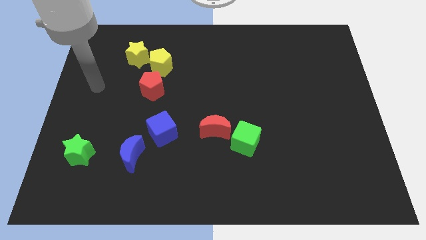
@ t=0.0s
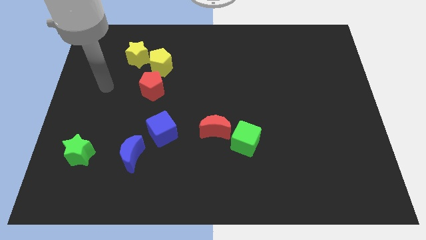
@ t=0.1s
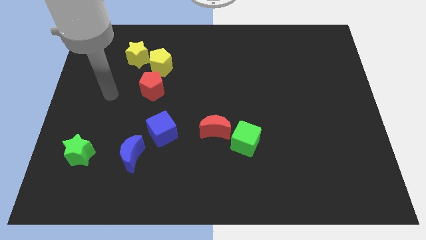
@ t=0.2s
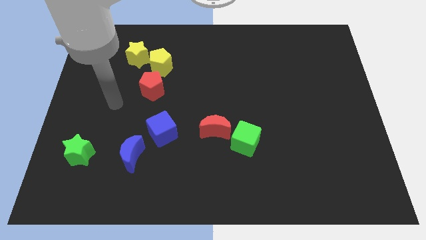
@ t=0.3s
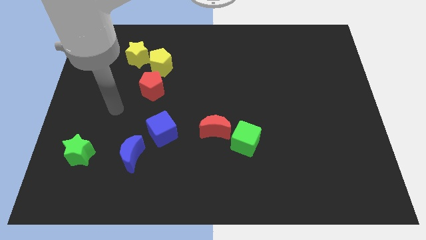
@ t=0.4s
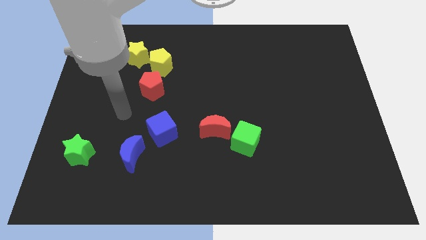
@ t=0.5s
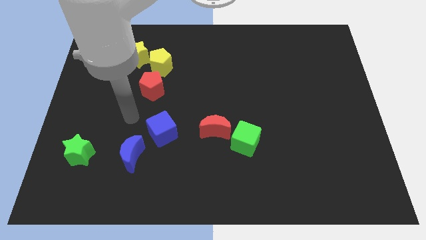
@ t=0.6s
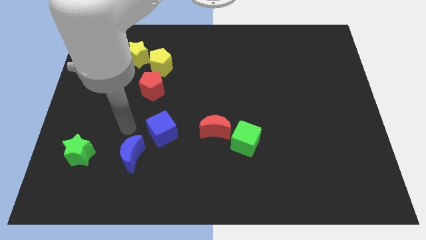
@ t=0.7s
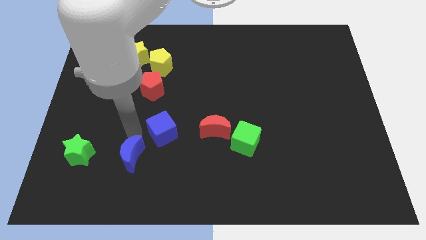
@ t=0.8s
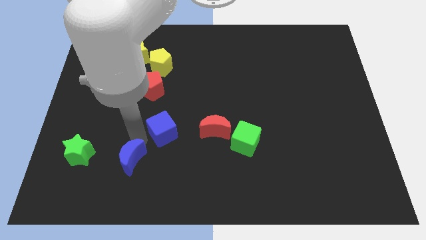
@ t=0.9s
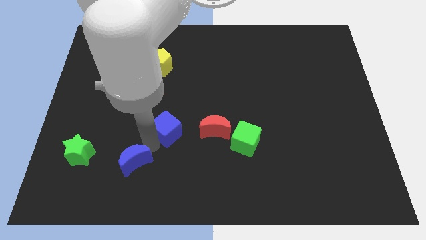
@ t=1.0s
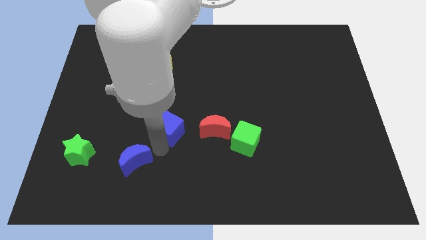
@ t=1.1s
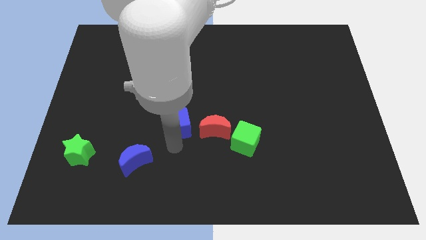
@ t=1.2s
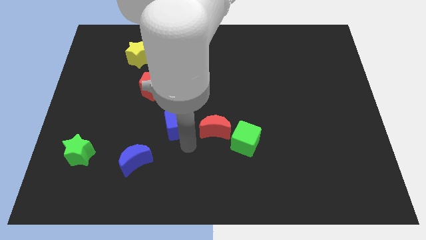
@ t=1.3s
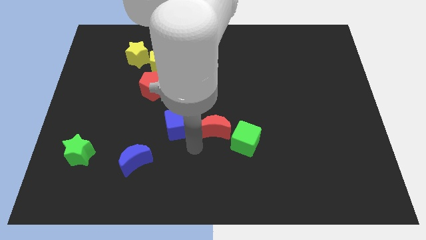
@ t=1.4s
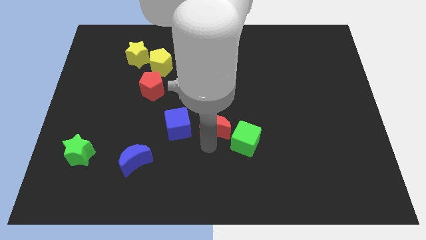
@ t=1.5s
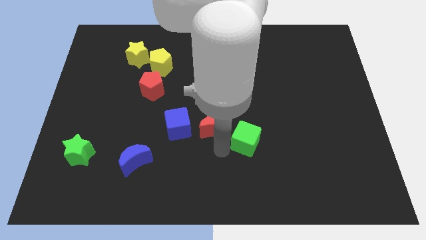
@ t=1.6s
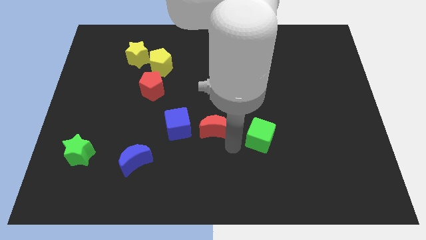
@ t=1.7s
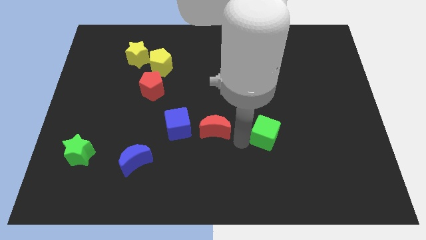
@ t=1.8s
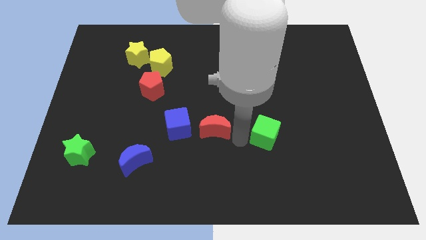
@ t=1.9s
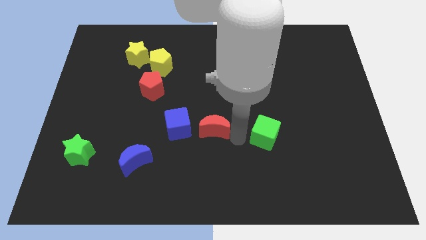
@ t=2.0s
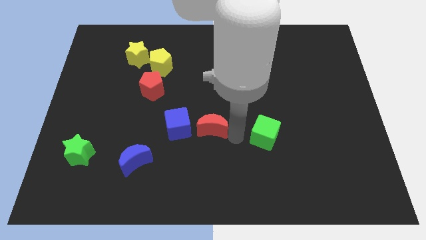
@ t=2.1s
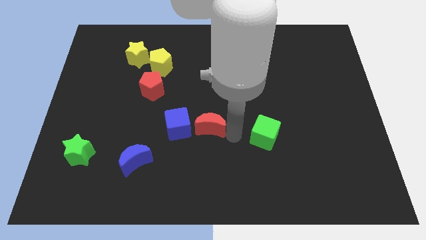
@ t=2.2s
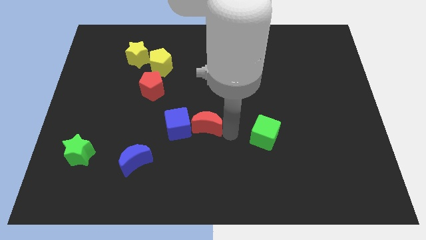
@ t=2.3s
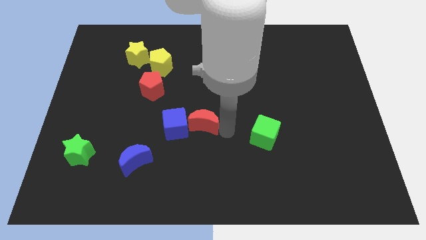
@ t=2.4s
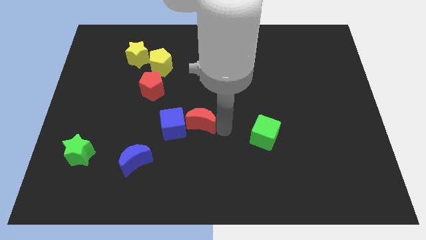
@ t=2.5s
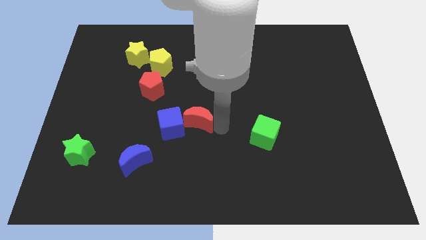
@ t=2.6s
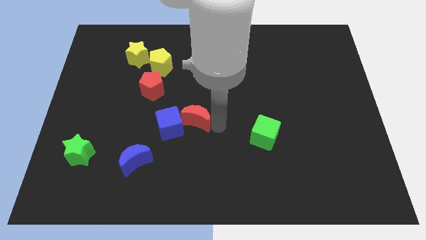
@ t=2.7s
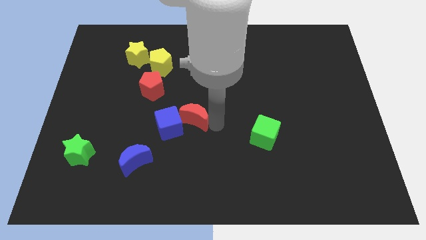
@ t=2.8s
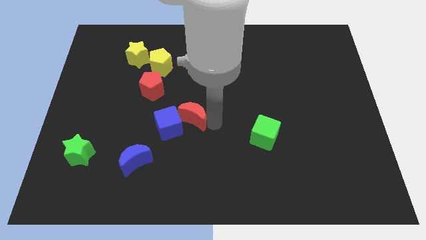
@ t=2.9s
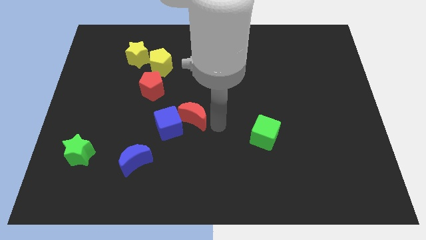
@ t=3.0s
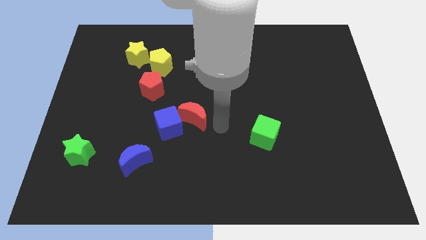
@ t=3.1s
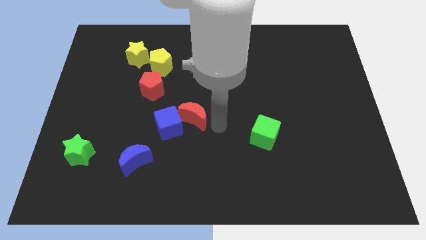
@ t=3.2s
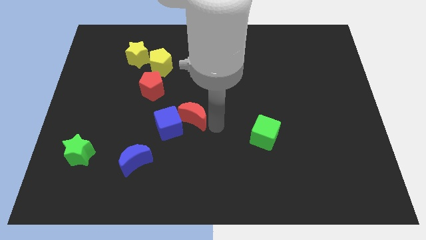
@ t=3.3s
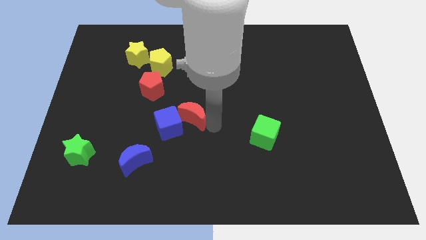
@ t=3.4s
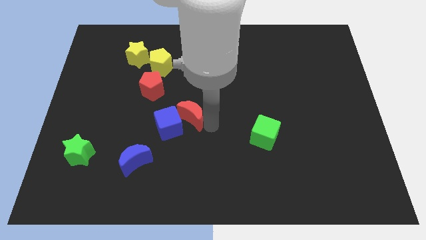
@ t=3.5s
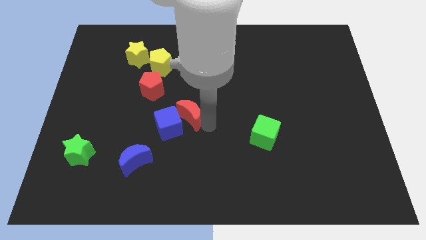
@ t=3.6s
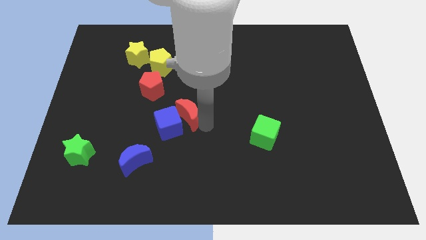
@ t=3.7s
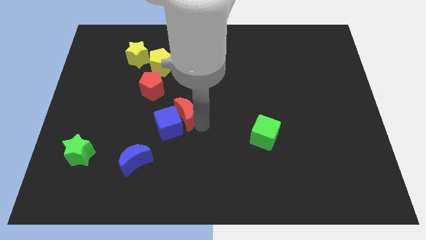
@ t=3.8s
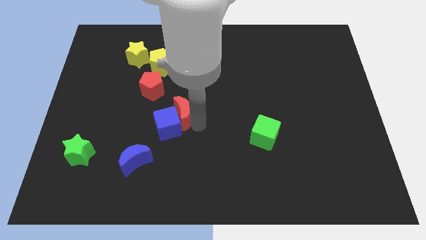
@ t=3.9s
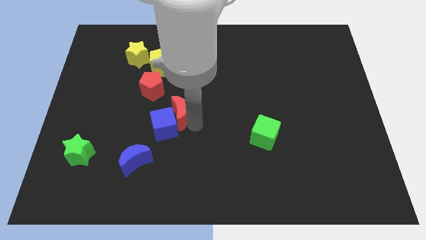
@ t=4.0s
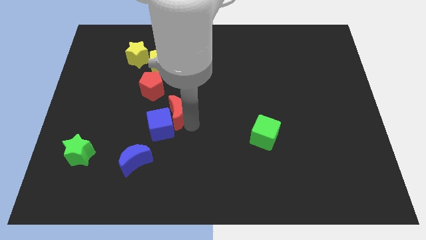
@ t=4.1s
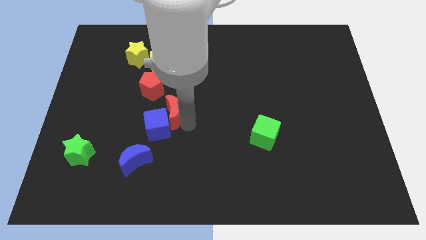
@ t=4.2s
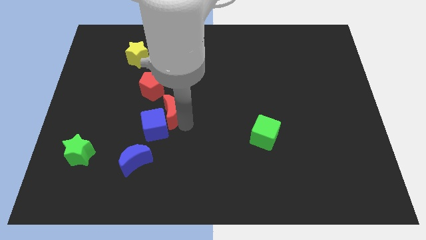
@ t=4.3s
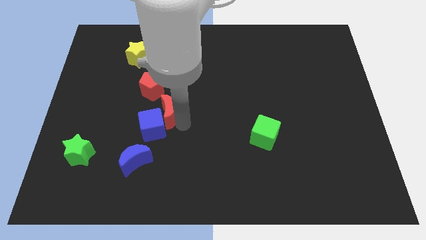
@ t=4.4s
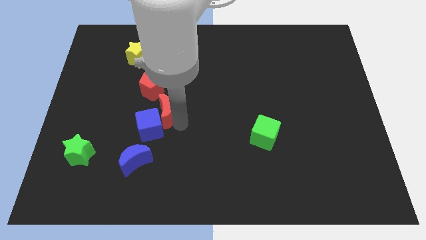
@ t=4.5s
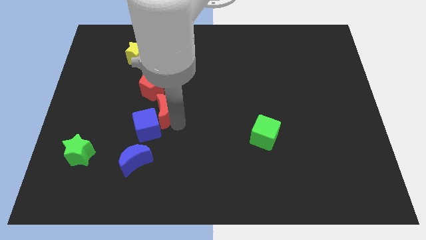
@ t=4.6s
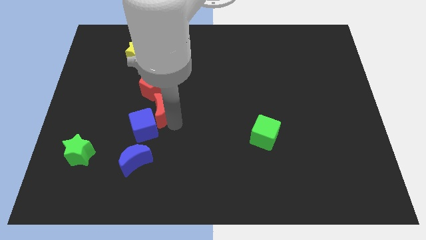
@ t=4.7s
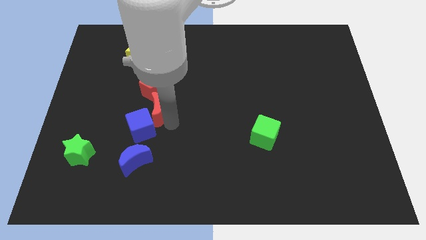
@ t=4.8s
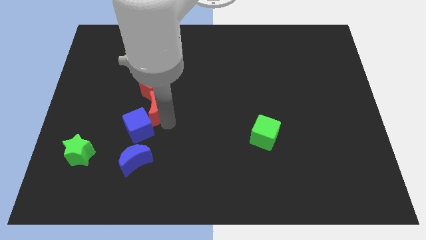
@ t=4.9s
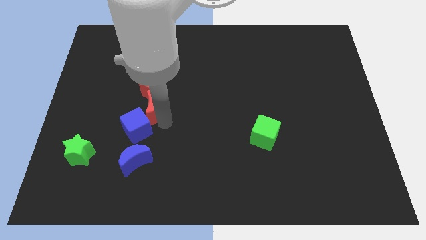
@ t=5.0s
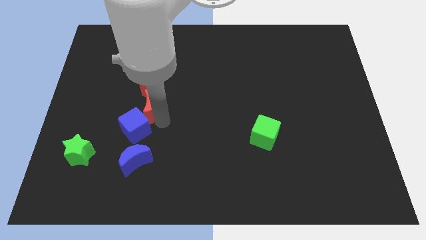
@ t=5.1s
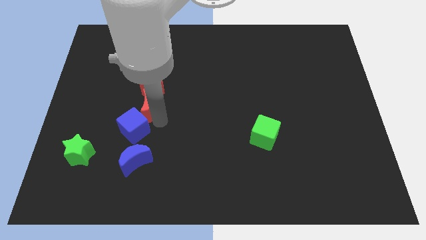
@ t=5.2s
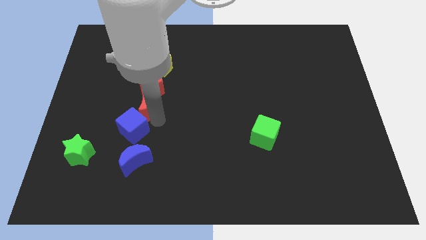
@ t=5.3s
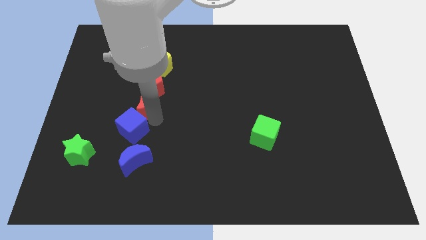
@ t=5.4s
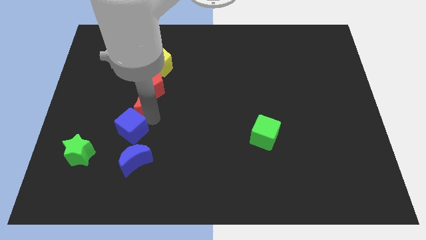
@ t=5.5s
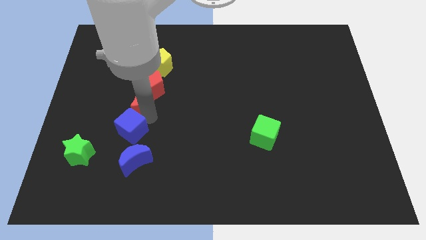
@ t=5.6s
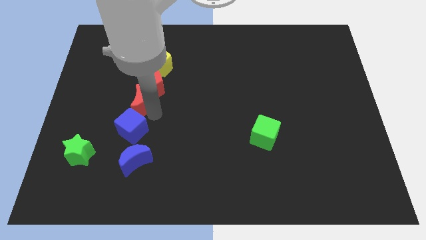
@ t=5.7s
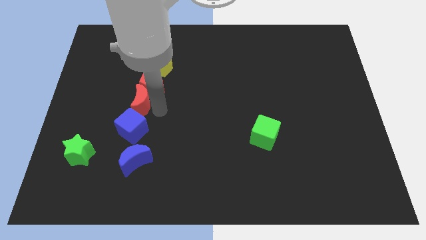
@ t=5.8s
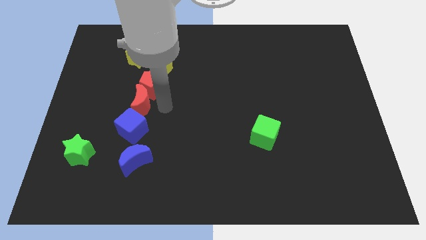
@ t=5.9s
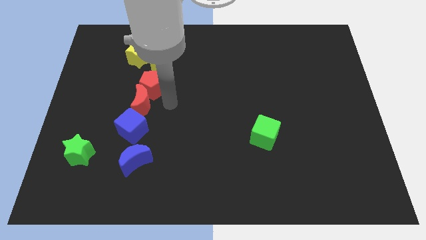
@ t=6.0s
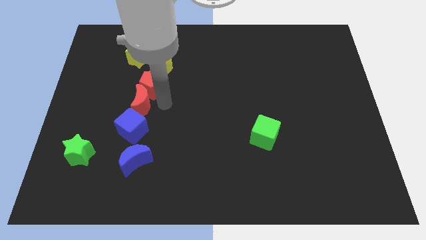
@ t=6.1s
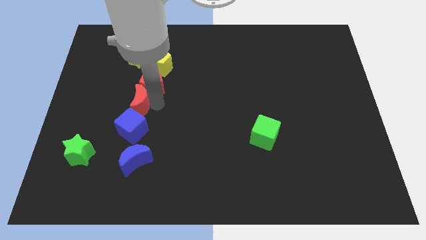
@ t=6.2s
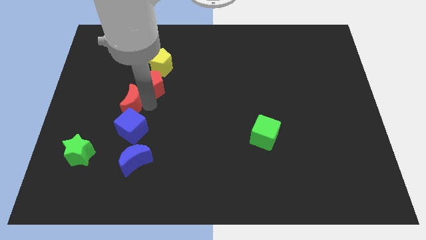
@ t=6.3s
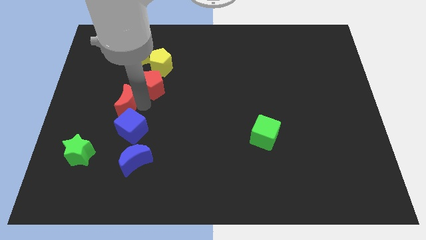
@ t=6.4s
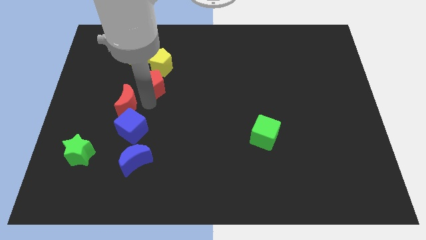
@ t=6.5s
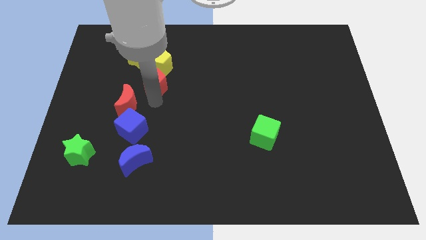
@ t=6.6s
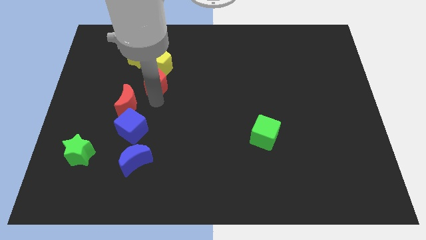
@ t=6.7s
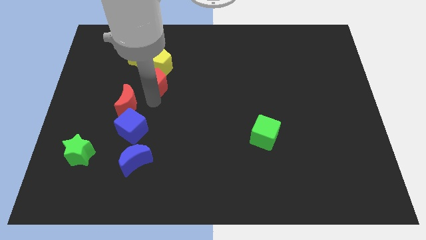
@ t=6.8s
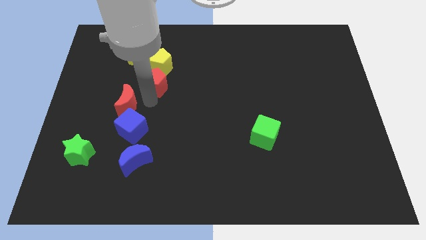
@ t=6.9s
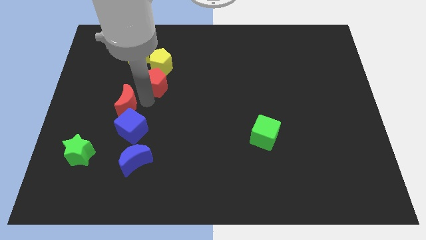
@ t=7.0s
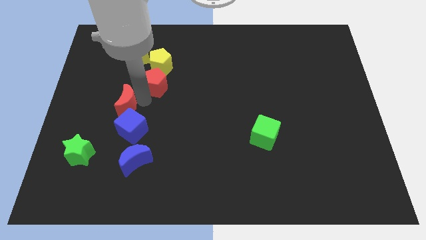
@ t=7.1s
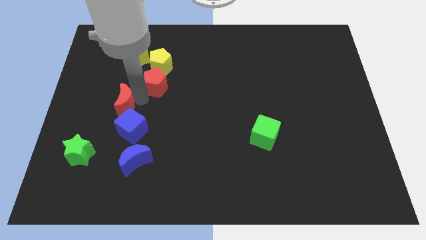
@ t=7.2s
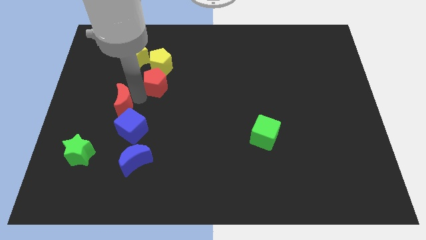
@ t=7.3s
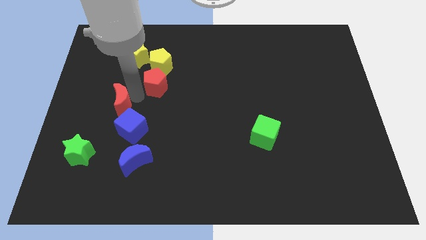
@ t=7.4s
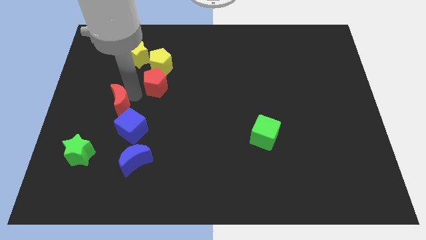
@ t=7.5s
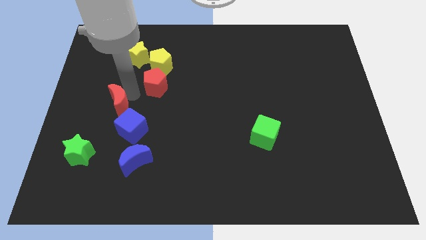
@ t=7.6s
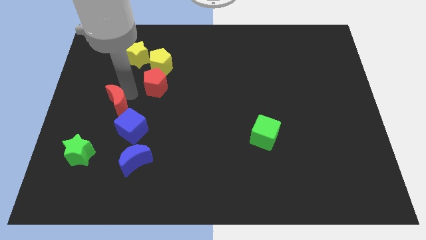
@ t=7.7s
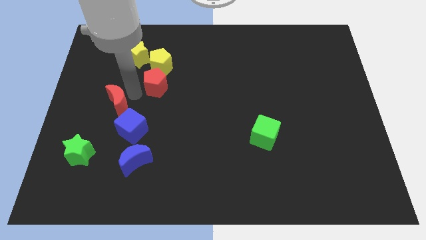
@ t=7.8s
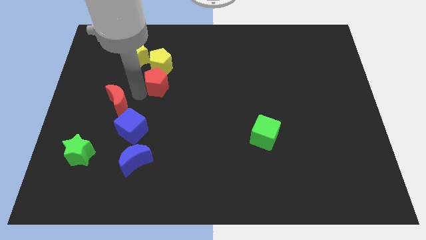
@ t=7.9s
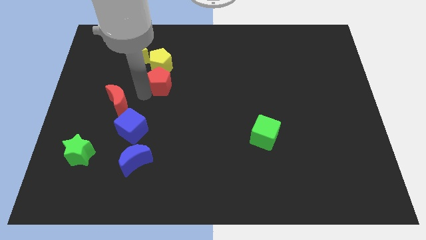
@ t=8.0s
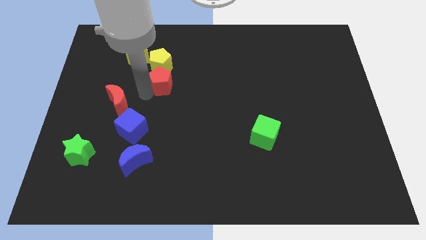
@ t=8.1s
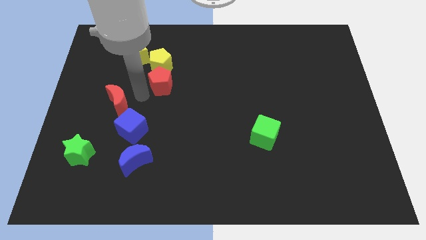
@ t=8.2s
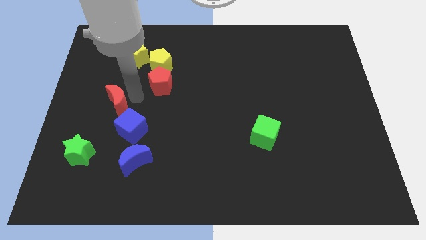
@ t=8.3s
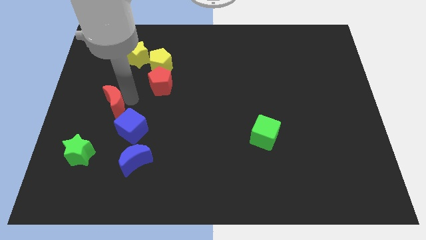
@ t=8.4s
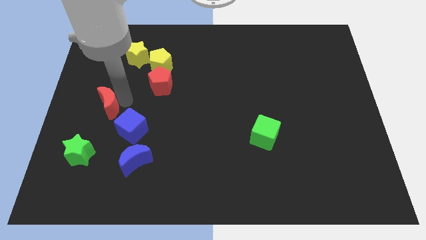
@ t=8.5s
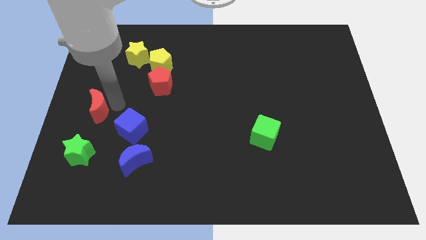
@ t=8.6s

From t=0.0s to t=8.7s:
push the red moon to the left side
